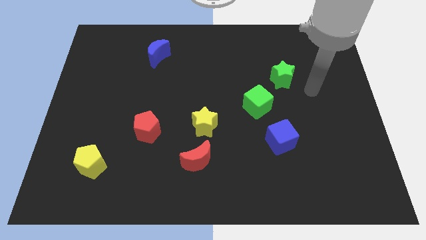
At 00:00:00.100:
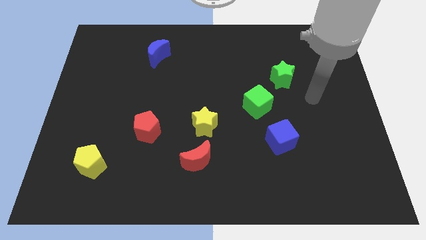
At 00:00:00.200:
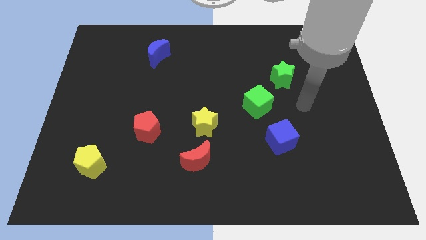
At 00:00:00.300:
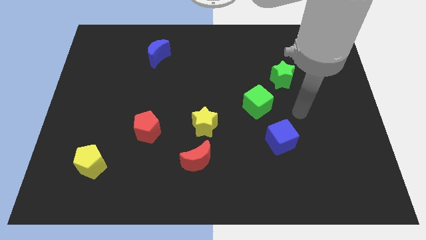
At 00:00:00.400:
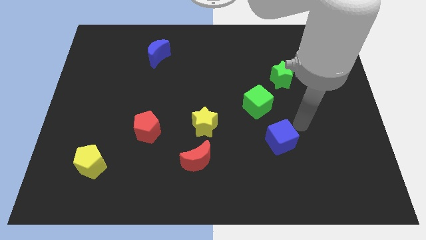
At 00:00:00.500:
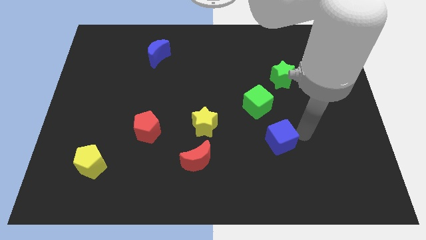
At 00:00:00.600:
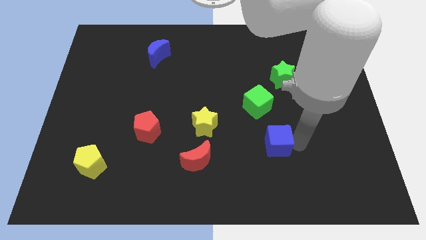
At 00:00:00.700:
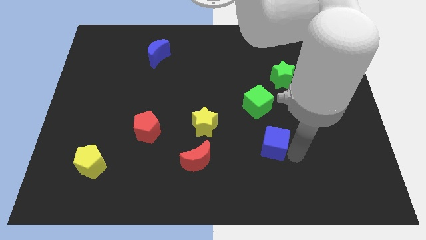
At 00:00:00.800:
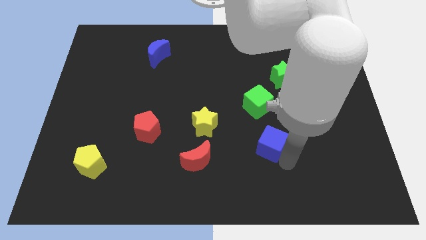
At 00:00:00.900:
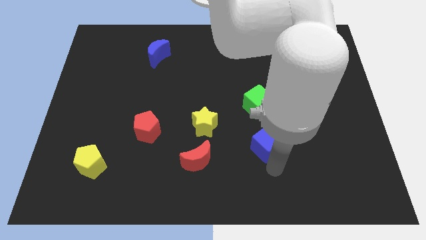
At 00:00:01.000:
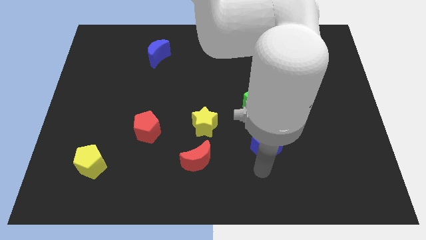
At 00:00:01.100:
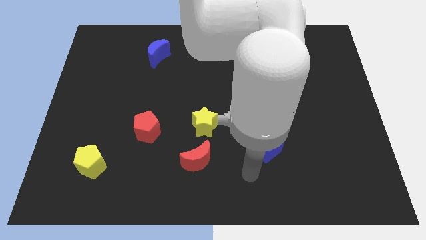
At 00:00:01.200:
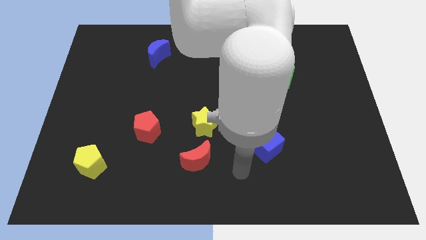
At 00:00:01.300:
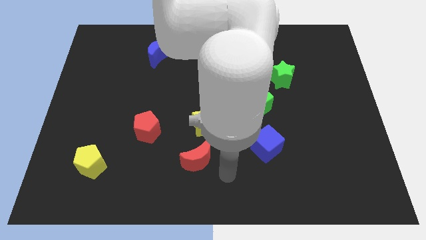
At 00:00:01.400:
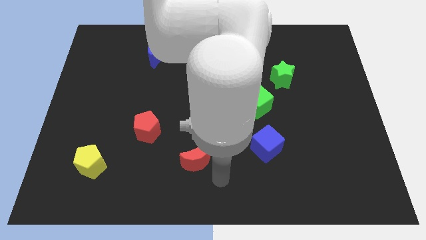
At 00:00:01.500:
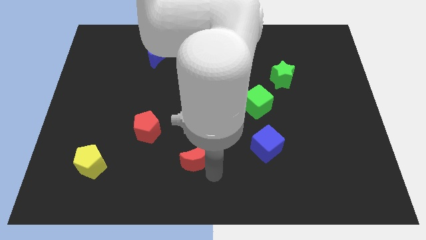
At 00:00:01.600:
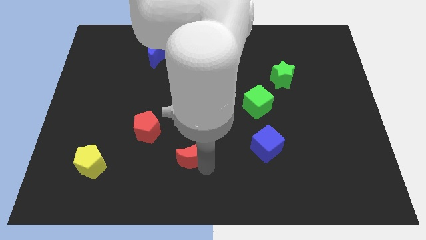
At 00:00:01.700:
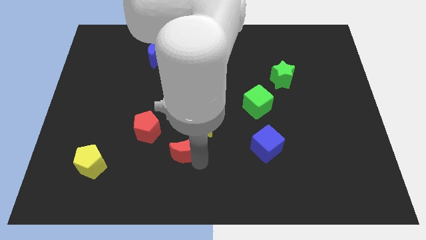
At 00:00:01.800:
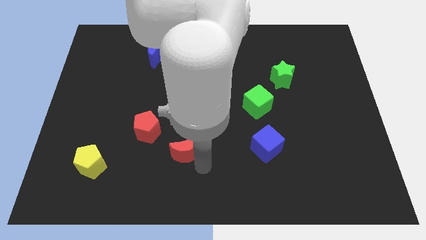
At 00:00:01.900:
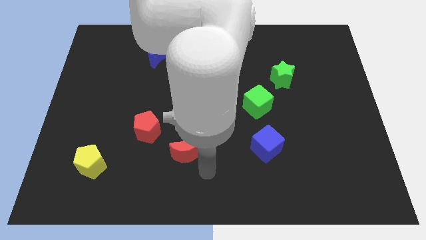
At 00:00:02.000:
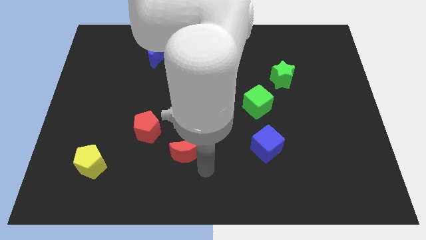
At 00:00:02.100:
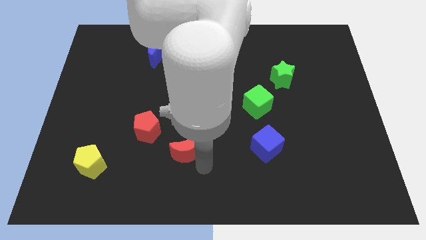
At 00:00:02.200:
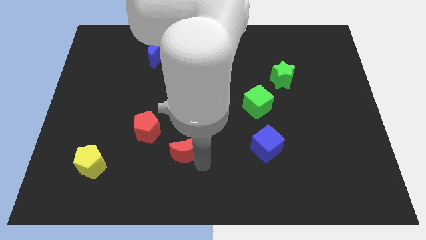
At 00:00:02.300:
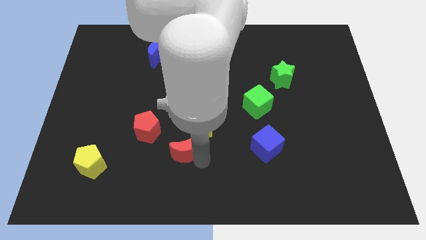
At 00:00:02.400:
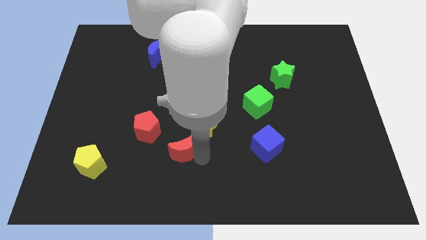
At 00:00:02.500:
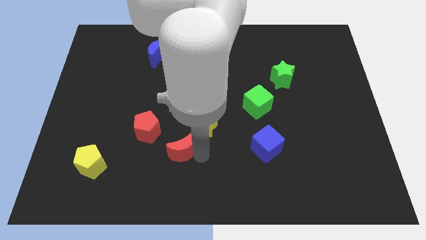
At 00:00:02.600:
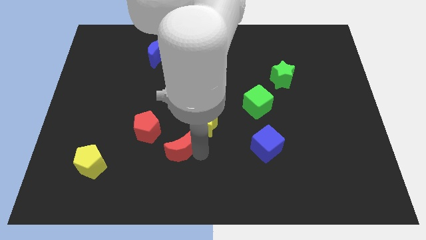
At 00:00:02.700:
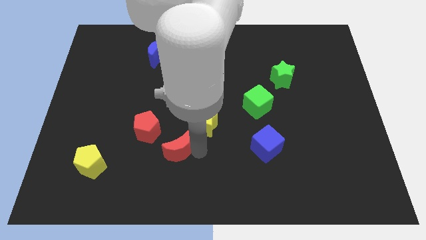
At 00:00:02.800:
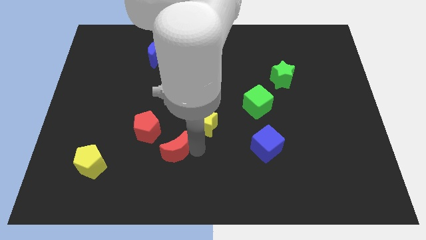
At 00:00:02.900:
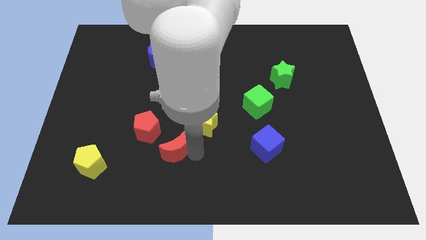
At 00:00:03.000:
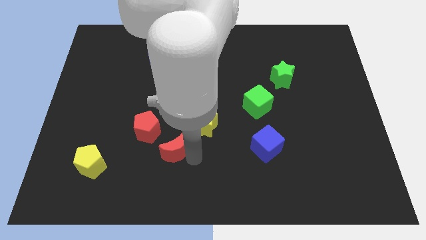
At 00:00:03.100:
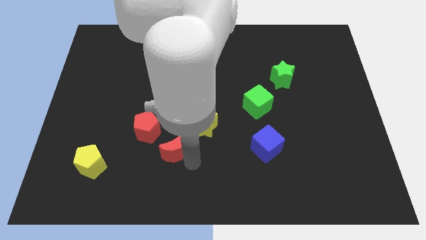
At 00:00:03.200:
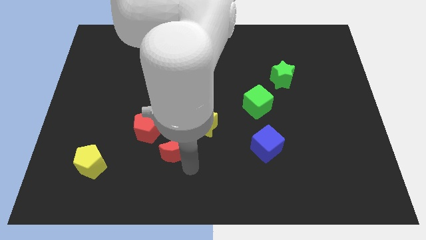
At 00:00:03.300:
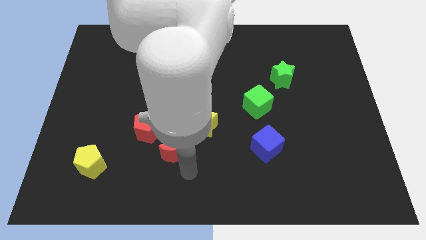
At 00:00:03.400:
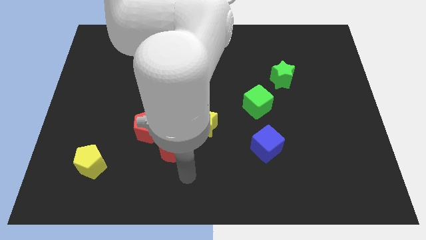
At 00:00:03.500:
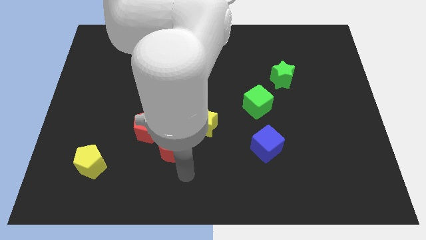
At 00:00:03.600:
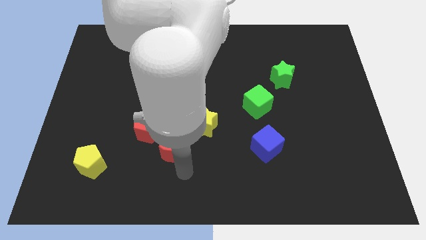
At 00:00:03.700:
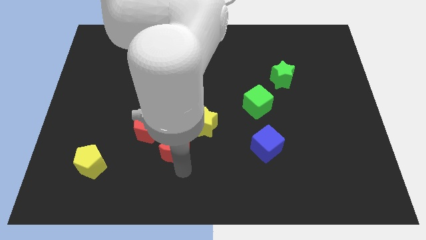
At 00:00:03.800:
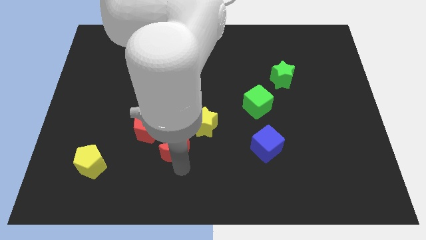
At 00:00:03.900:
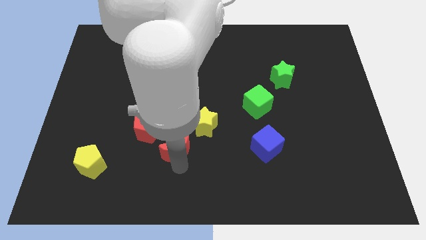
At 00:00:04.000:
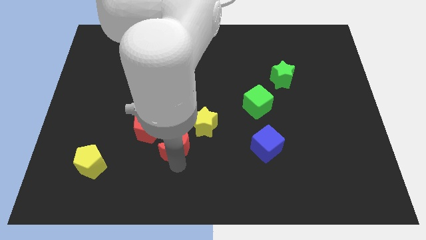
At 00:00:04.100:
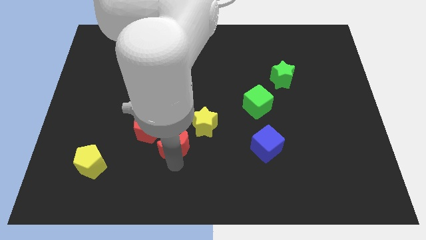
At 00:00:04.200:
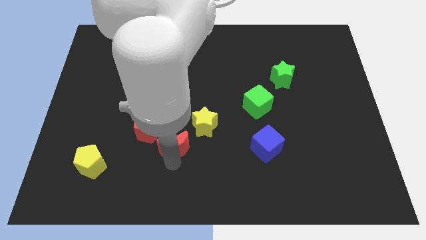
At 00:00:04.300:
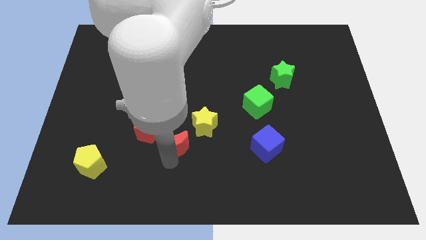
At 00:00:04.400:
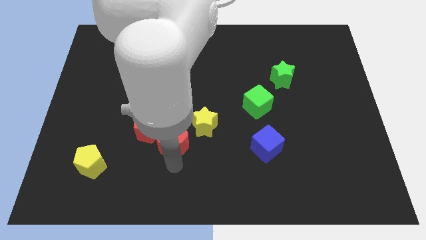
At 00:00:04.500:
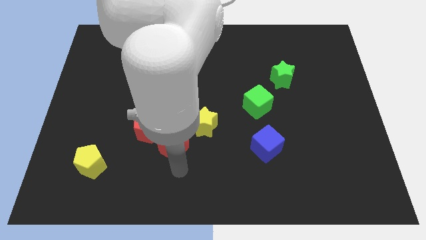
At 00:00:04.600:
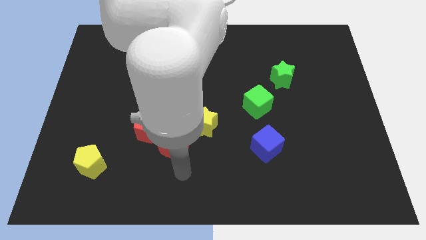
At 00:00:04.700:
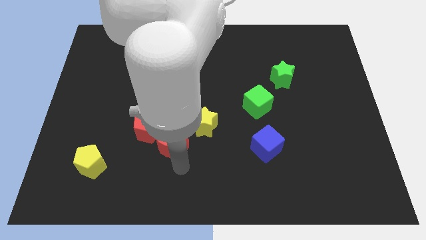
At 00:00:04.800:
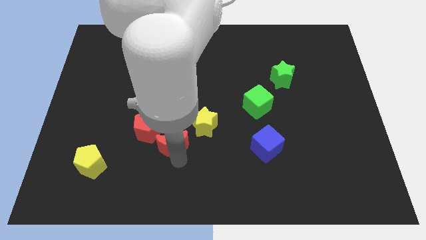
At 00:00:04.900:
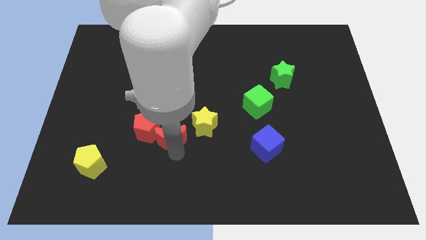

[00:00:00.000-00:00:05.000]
push the red moon diagonally upwards and to the left a little

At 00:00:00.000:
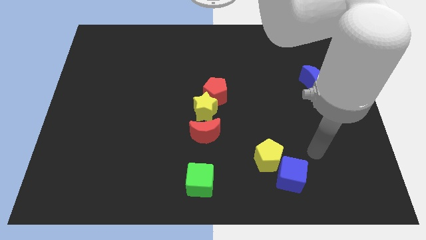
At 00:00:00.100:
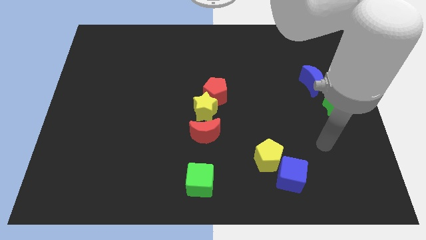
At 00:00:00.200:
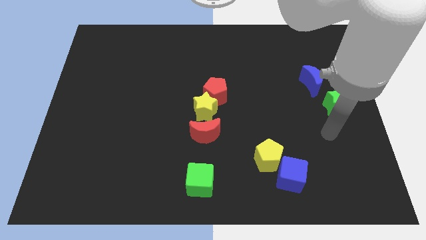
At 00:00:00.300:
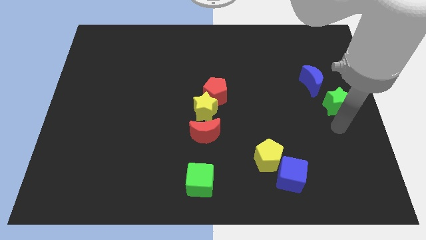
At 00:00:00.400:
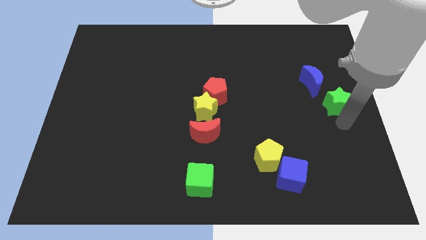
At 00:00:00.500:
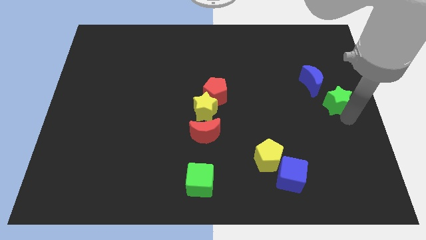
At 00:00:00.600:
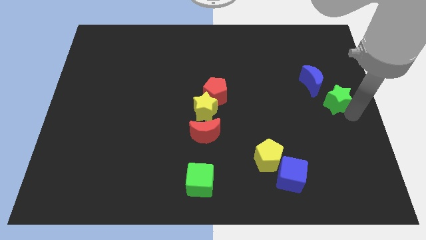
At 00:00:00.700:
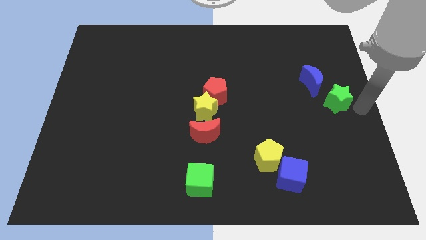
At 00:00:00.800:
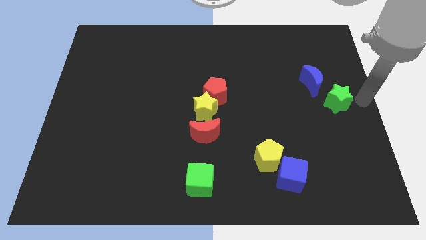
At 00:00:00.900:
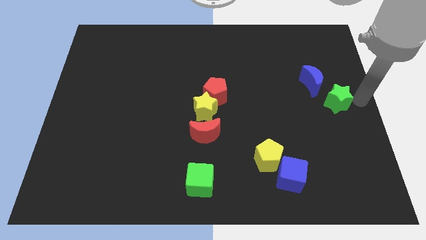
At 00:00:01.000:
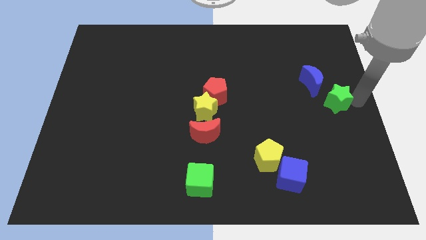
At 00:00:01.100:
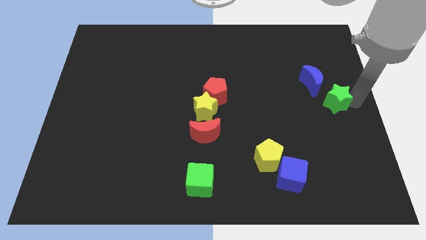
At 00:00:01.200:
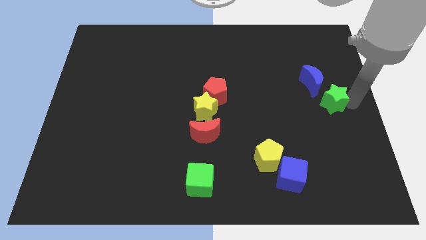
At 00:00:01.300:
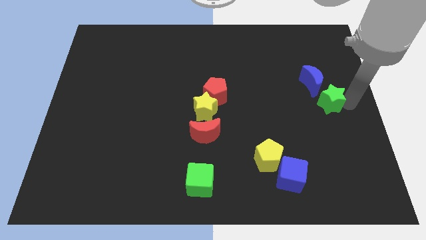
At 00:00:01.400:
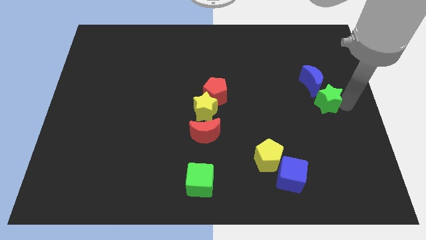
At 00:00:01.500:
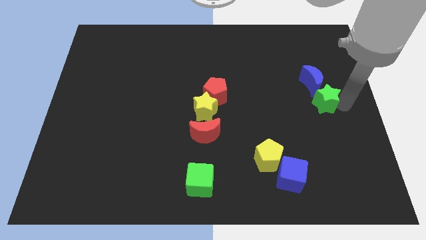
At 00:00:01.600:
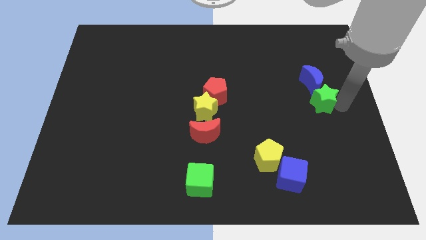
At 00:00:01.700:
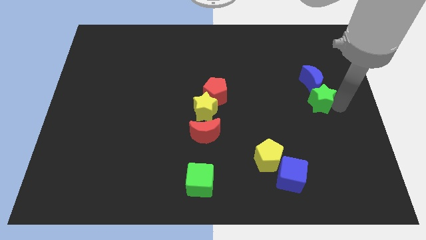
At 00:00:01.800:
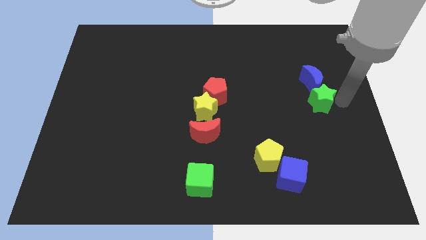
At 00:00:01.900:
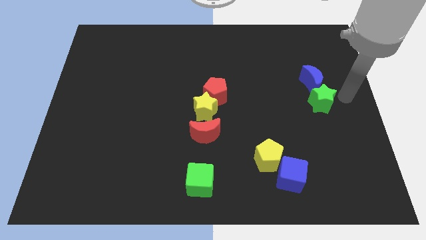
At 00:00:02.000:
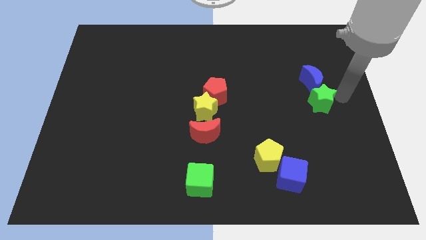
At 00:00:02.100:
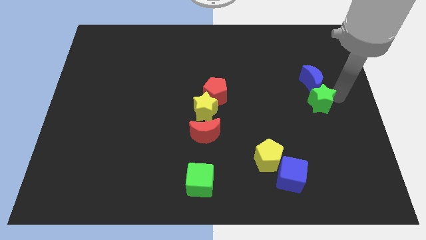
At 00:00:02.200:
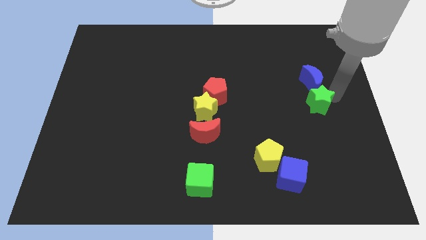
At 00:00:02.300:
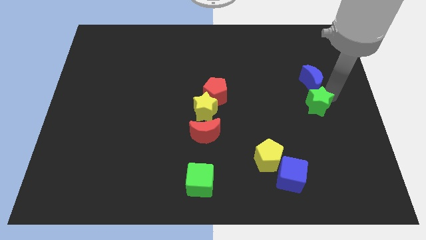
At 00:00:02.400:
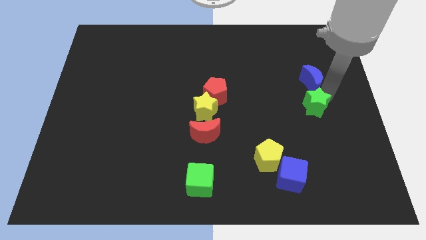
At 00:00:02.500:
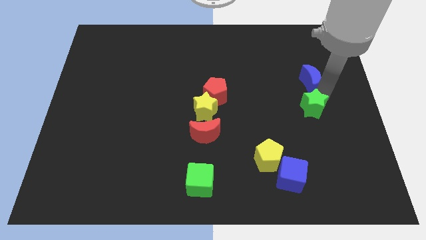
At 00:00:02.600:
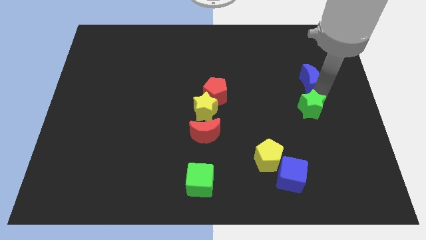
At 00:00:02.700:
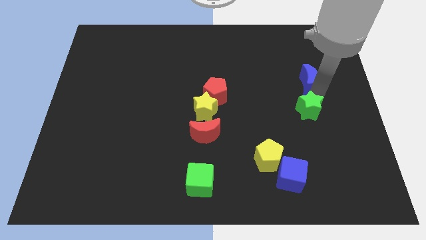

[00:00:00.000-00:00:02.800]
slightly push the green star left
